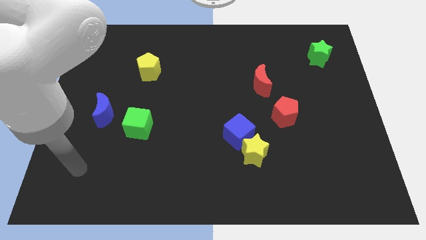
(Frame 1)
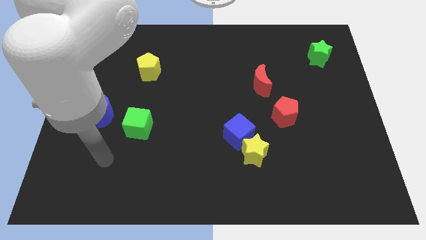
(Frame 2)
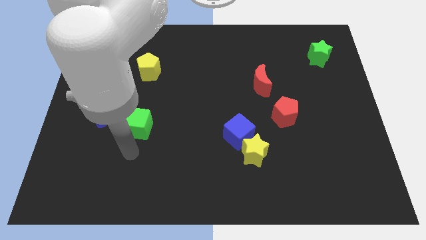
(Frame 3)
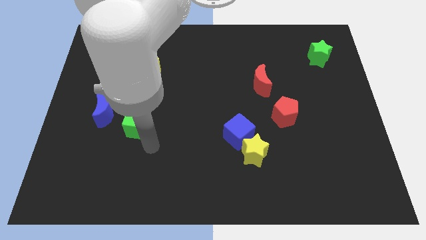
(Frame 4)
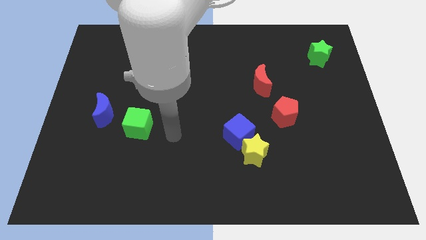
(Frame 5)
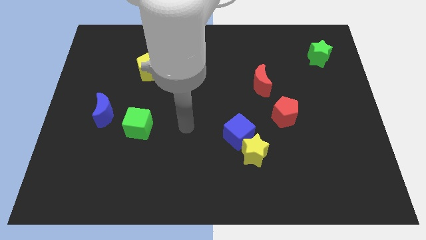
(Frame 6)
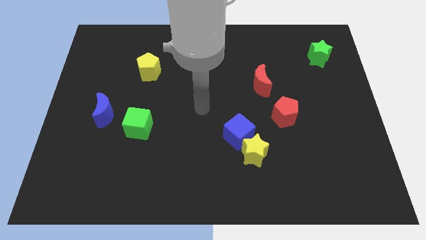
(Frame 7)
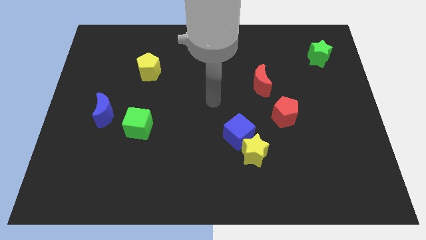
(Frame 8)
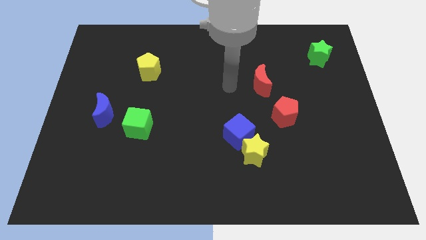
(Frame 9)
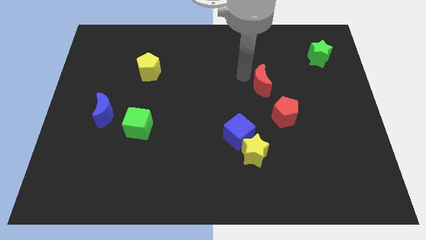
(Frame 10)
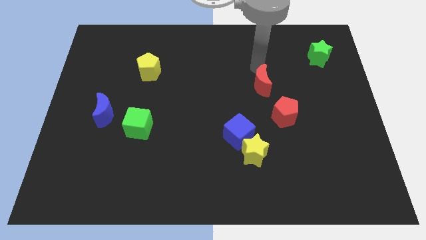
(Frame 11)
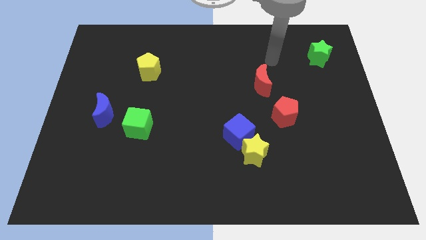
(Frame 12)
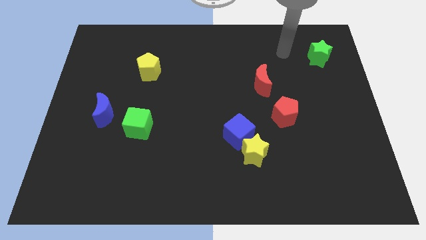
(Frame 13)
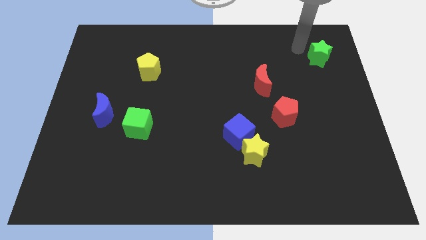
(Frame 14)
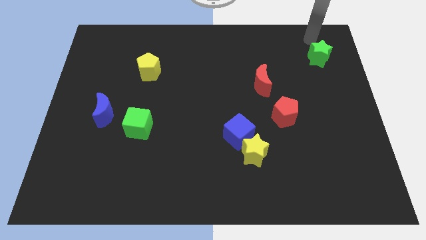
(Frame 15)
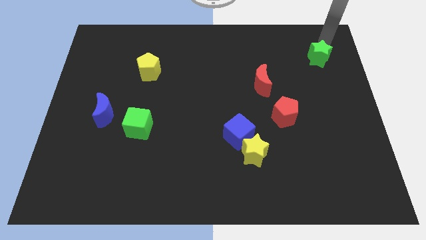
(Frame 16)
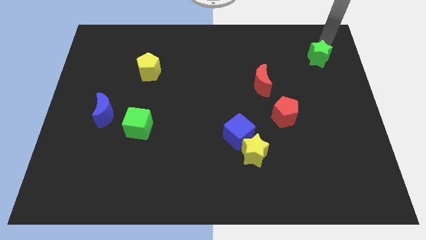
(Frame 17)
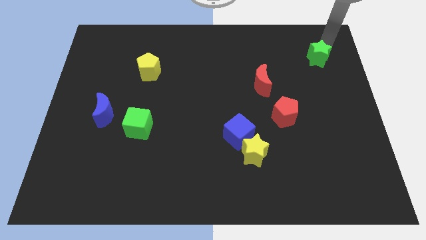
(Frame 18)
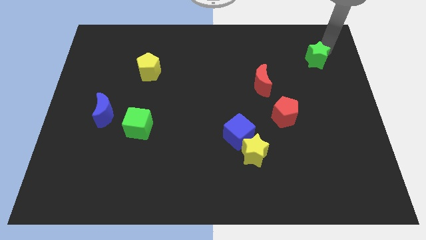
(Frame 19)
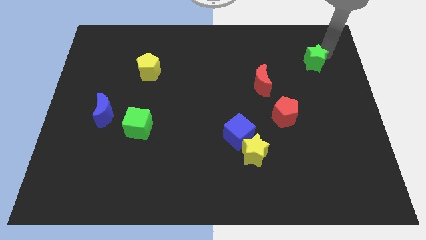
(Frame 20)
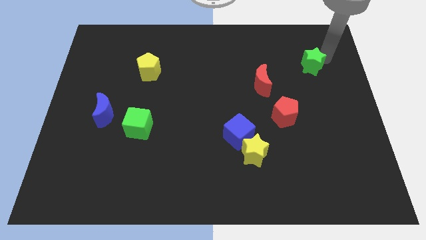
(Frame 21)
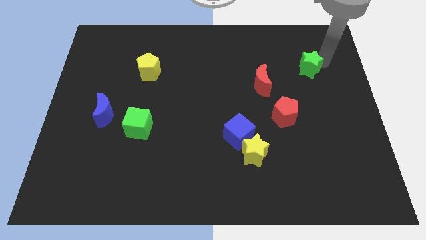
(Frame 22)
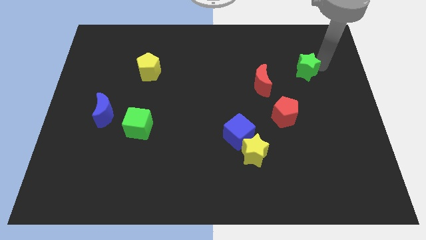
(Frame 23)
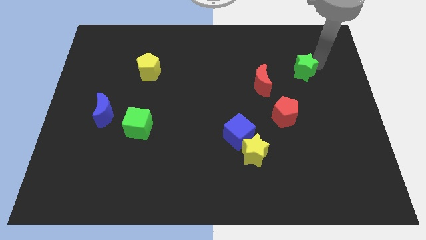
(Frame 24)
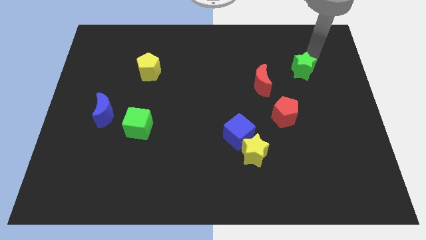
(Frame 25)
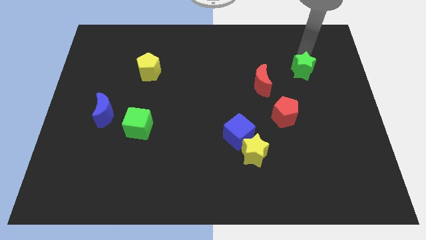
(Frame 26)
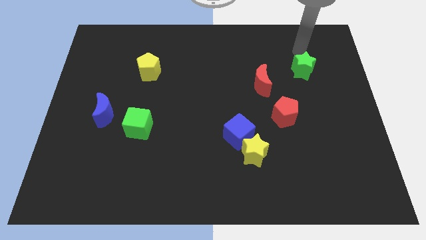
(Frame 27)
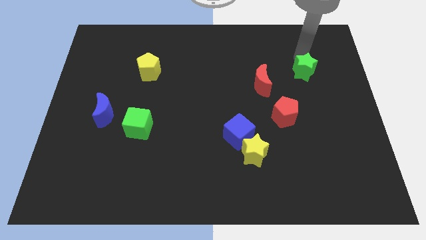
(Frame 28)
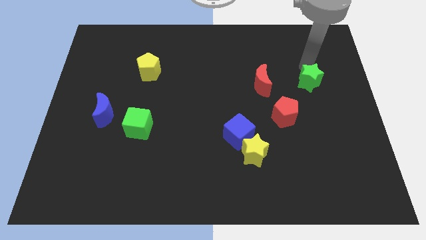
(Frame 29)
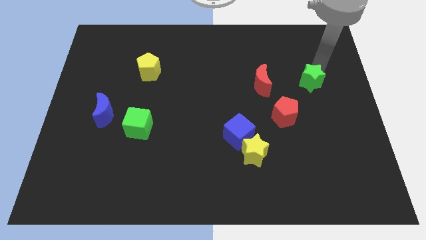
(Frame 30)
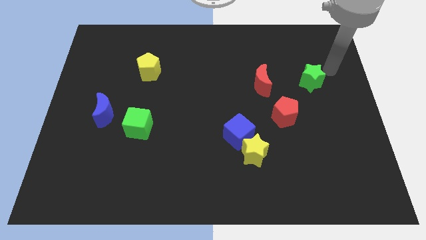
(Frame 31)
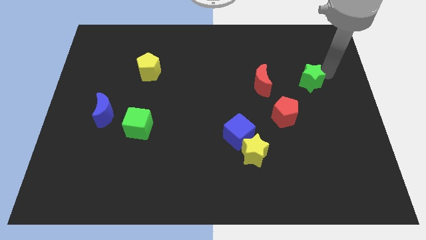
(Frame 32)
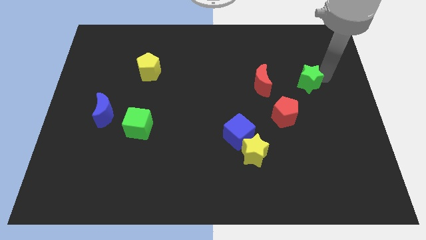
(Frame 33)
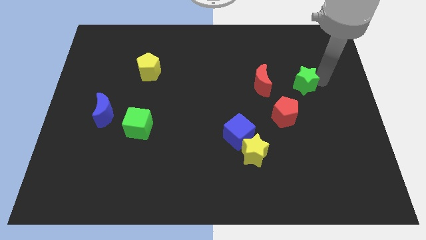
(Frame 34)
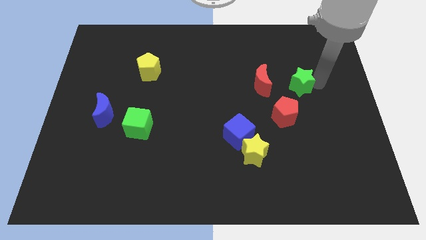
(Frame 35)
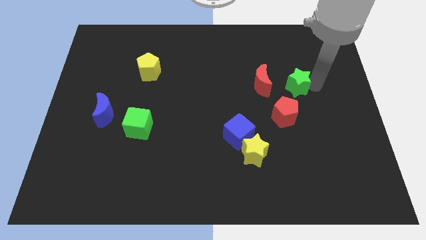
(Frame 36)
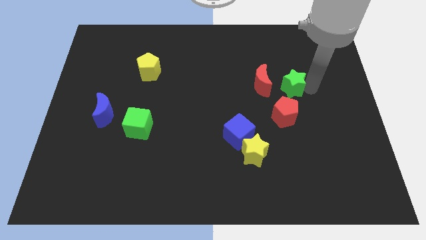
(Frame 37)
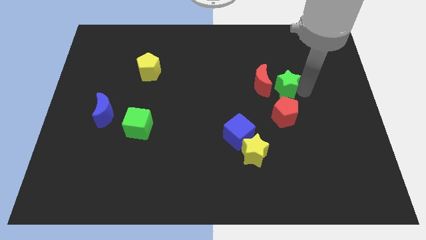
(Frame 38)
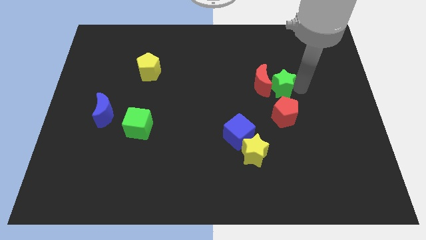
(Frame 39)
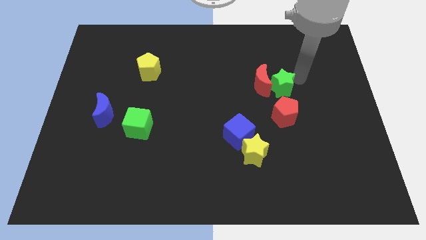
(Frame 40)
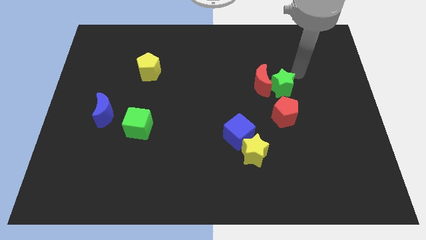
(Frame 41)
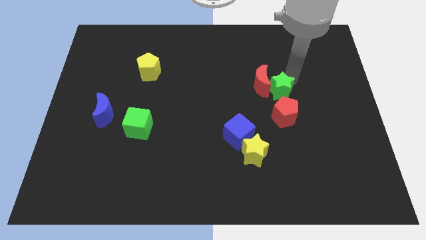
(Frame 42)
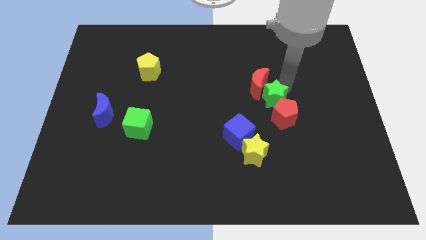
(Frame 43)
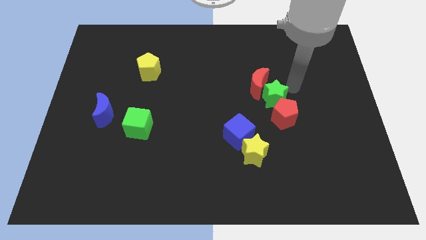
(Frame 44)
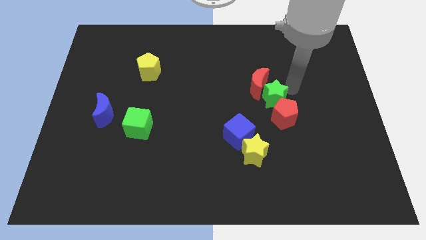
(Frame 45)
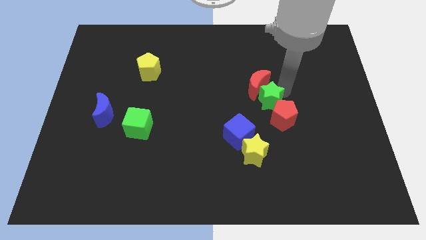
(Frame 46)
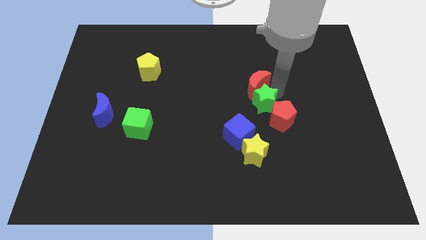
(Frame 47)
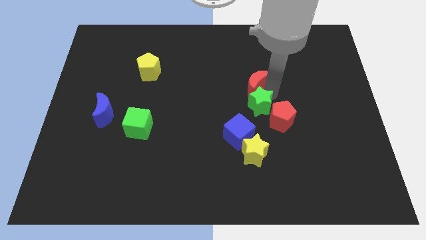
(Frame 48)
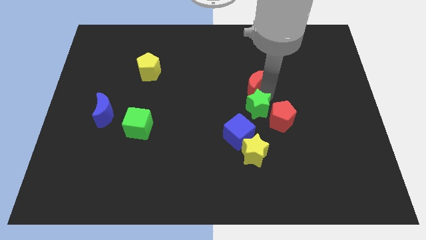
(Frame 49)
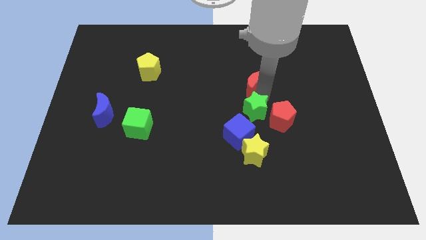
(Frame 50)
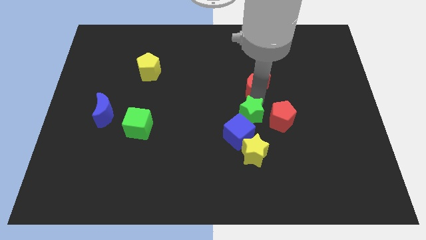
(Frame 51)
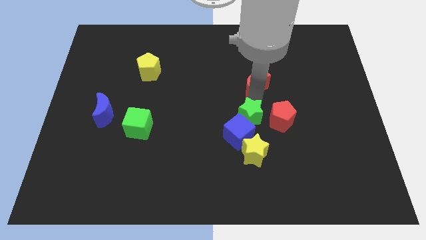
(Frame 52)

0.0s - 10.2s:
push the green star to the blue cube

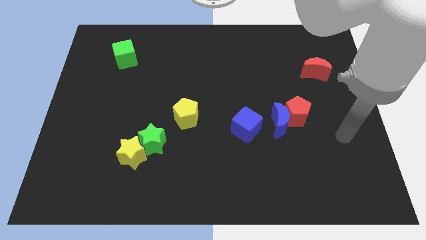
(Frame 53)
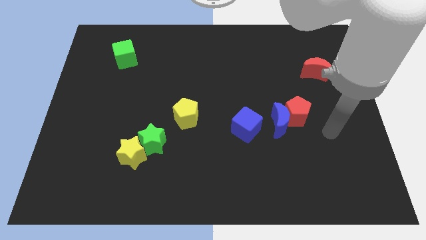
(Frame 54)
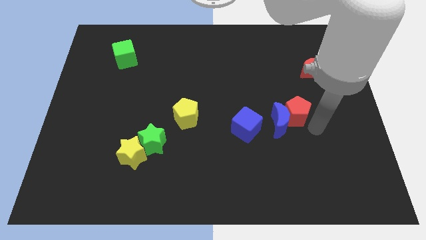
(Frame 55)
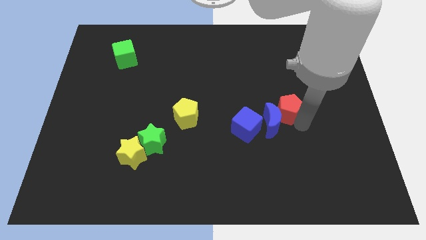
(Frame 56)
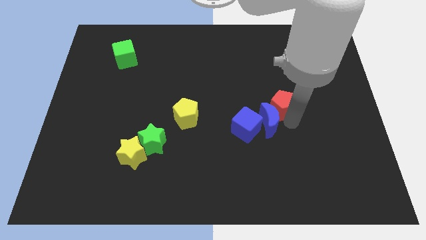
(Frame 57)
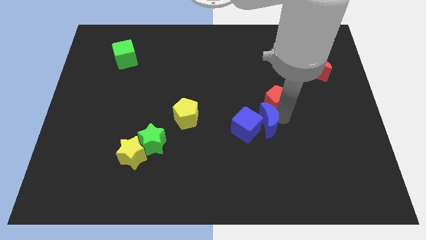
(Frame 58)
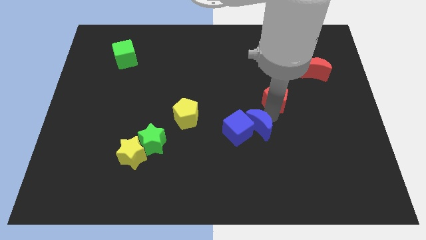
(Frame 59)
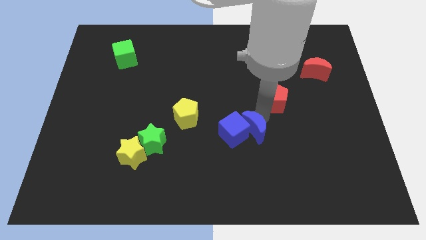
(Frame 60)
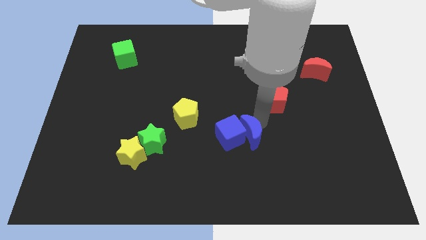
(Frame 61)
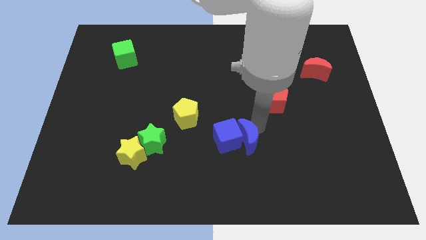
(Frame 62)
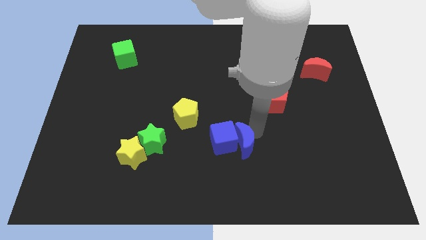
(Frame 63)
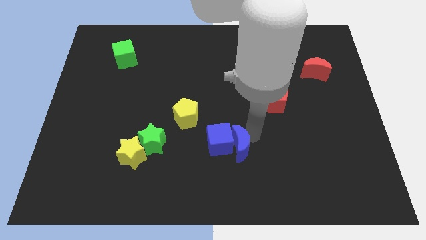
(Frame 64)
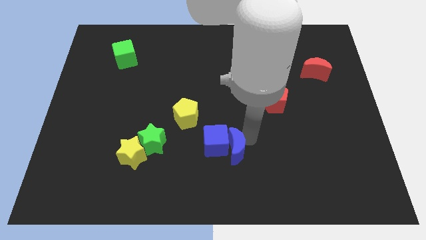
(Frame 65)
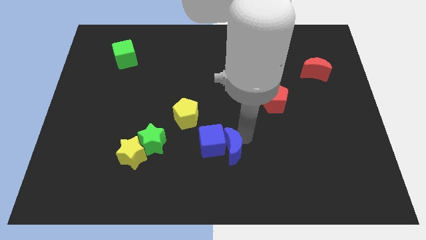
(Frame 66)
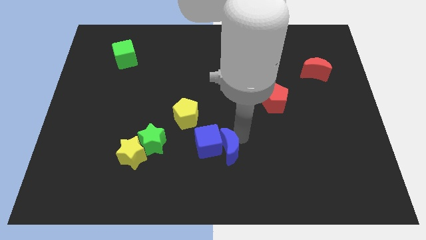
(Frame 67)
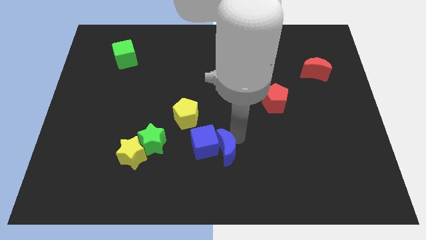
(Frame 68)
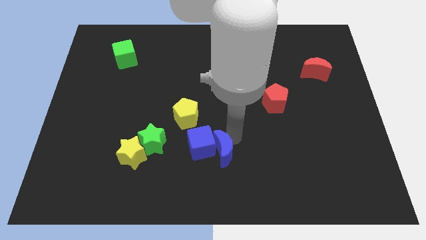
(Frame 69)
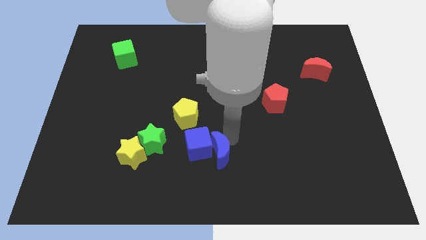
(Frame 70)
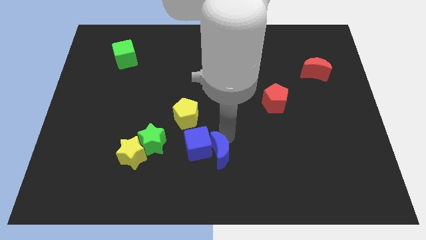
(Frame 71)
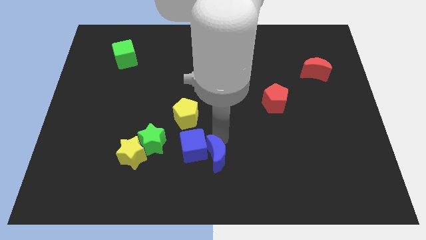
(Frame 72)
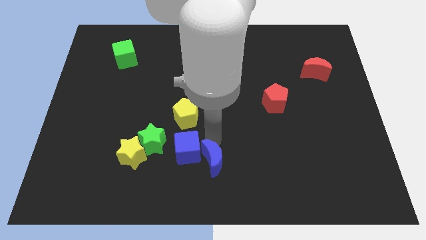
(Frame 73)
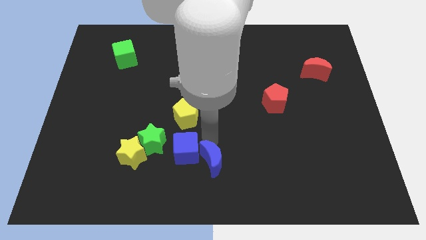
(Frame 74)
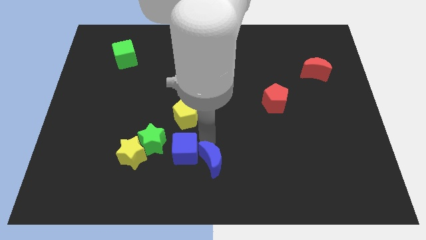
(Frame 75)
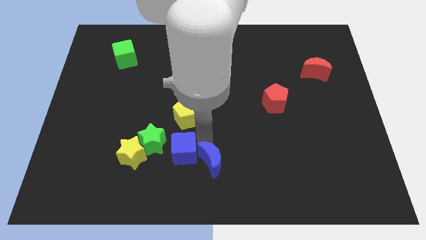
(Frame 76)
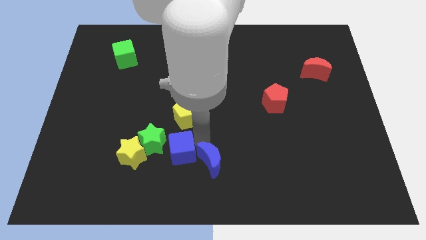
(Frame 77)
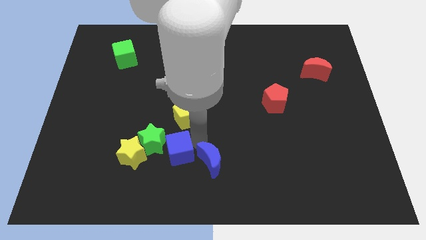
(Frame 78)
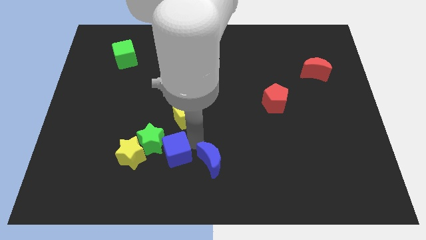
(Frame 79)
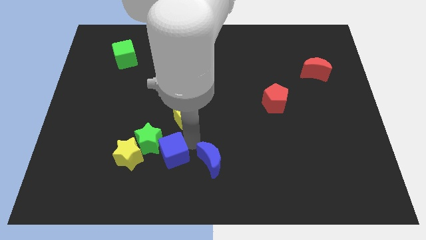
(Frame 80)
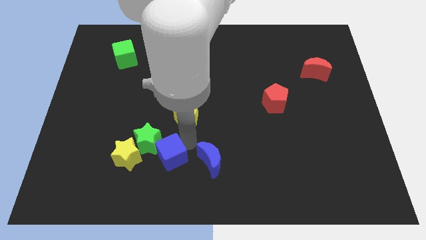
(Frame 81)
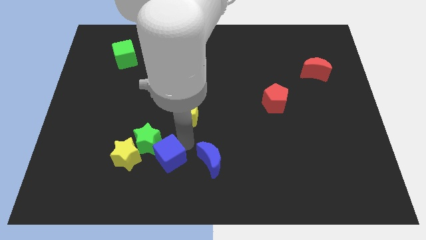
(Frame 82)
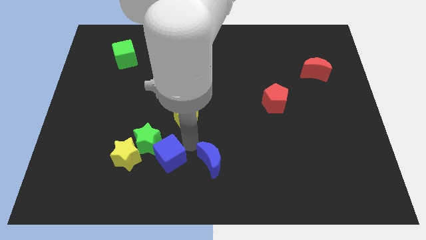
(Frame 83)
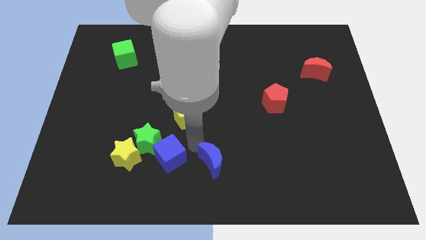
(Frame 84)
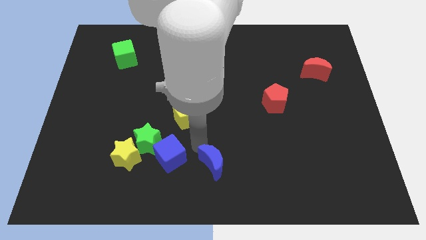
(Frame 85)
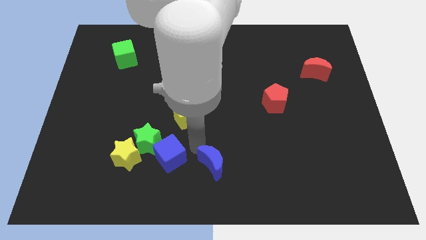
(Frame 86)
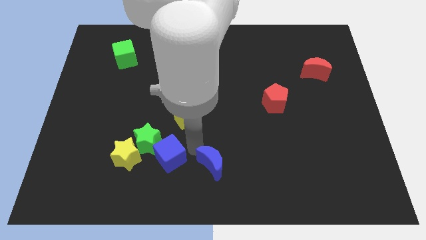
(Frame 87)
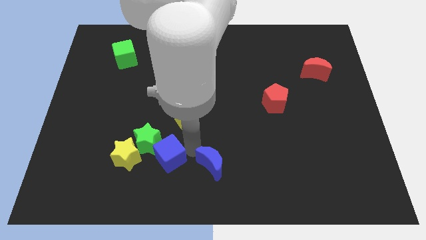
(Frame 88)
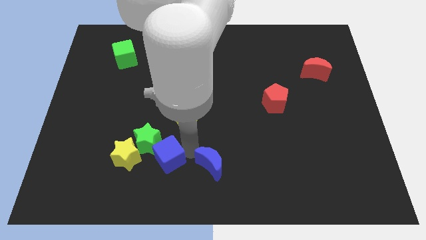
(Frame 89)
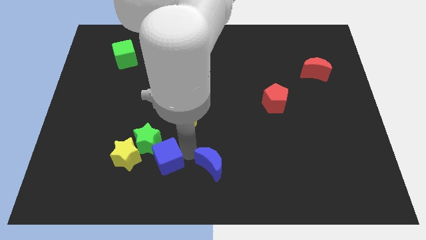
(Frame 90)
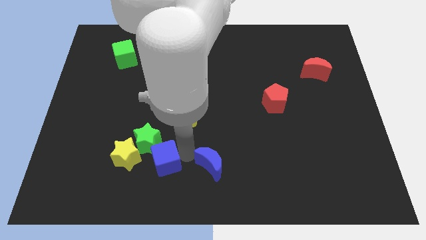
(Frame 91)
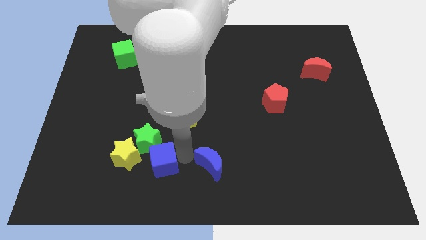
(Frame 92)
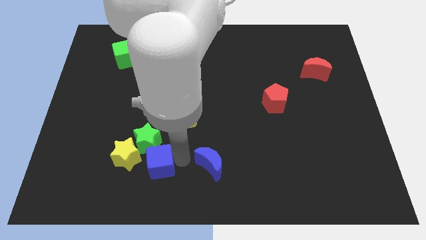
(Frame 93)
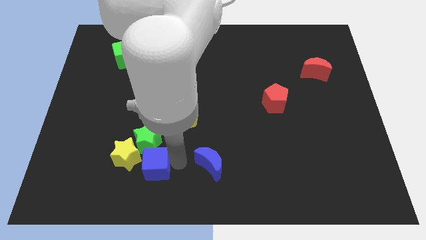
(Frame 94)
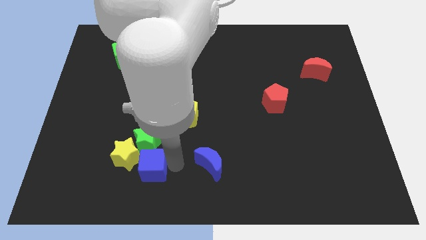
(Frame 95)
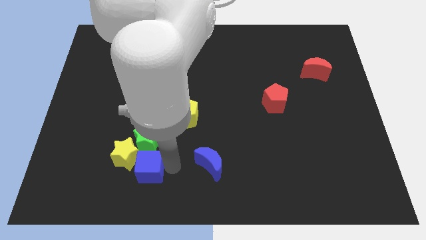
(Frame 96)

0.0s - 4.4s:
push the blue cube towards the yellow star
